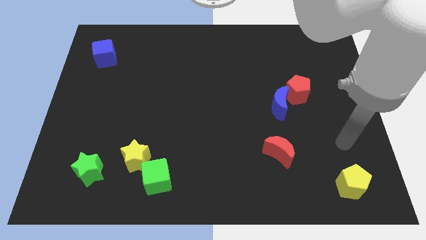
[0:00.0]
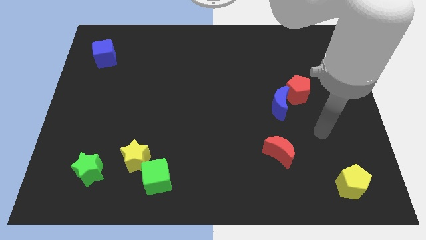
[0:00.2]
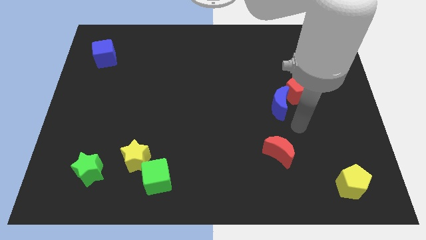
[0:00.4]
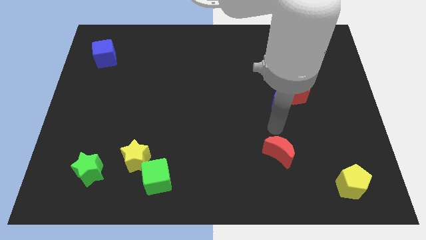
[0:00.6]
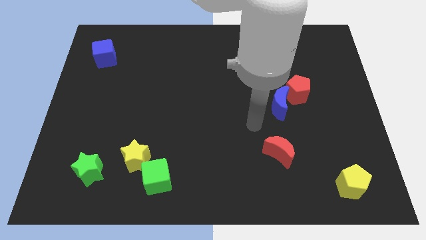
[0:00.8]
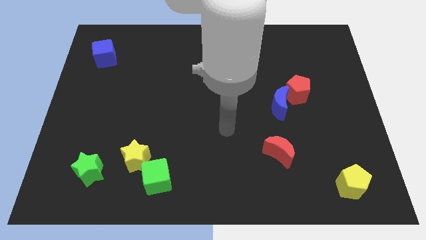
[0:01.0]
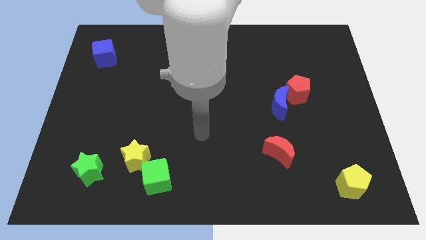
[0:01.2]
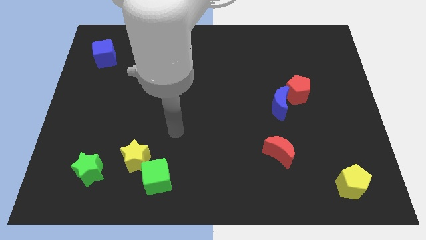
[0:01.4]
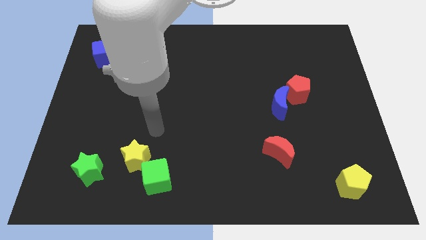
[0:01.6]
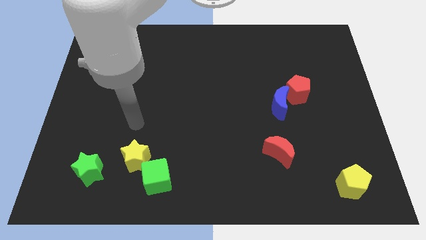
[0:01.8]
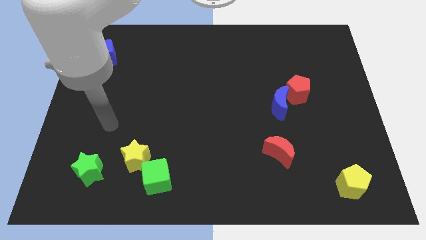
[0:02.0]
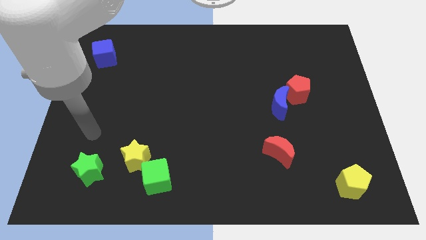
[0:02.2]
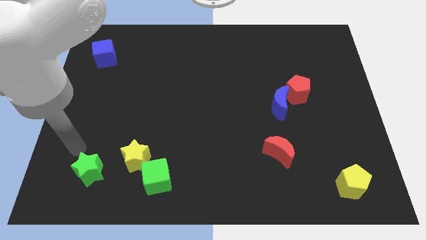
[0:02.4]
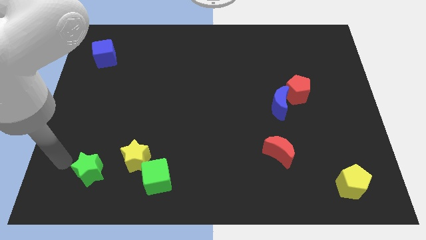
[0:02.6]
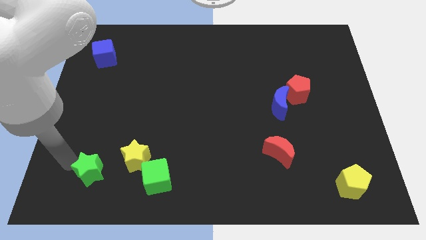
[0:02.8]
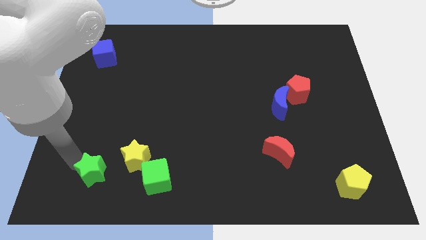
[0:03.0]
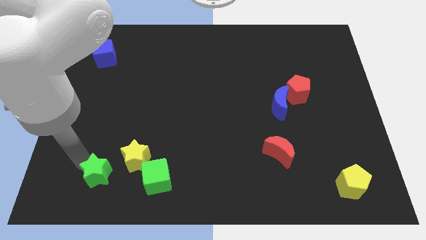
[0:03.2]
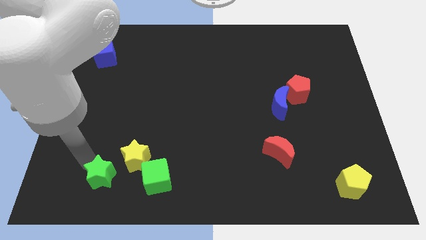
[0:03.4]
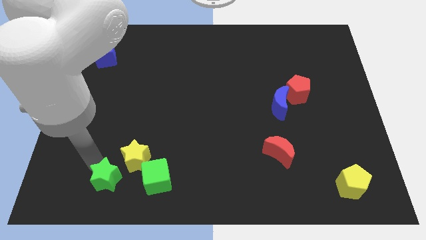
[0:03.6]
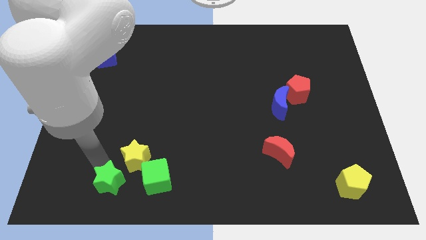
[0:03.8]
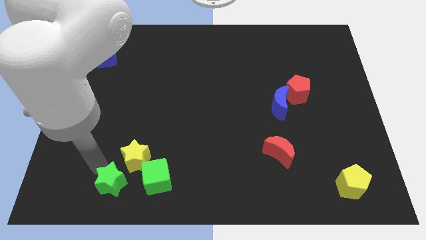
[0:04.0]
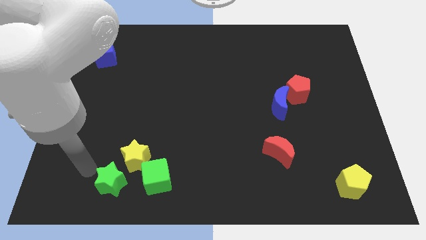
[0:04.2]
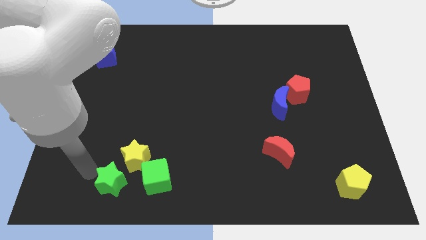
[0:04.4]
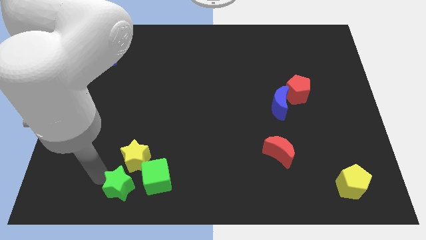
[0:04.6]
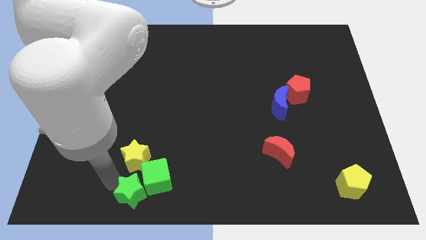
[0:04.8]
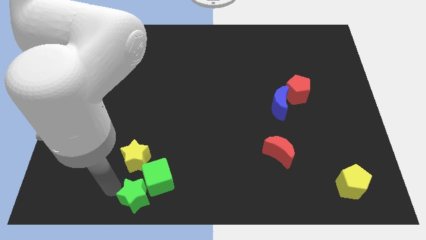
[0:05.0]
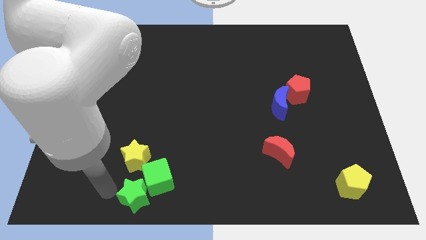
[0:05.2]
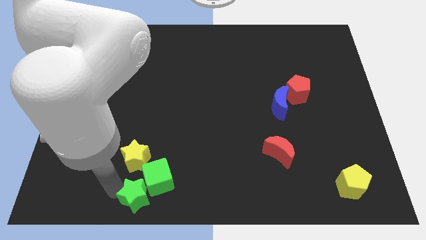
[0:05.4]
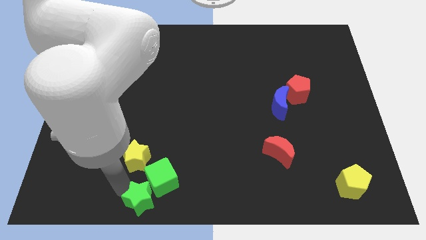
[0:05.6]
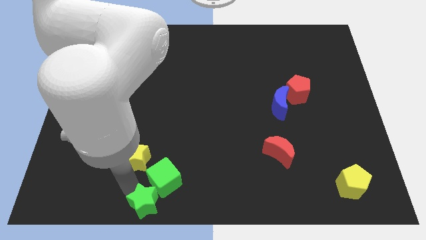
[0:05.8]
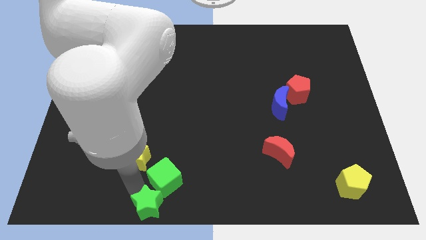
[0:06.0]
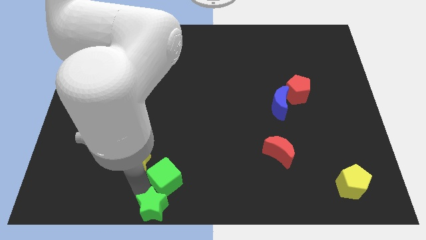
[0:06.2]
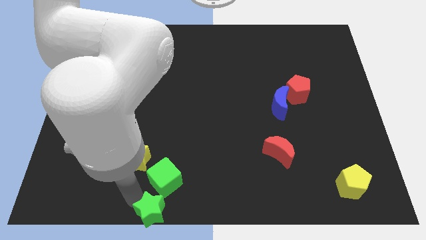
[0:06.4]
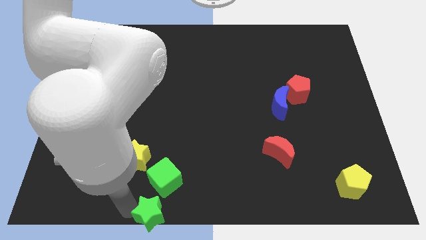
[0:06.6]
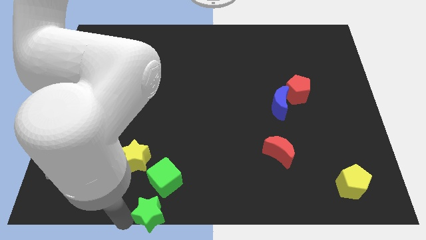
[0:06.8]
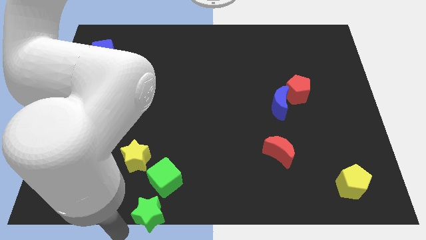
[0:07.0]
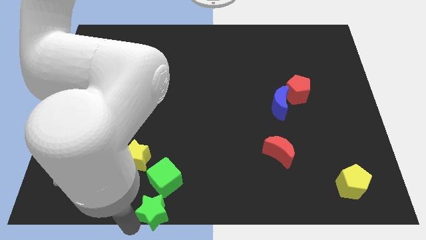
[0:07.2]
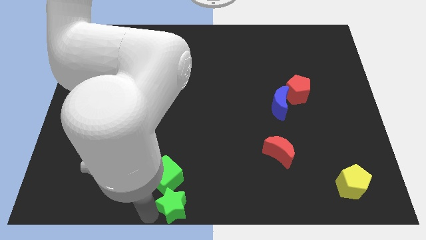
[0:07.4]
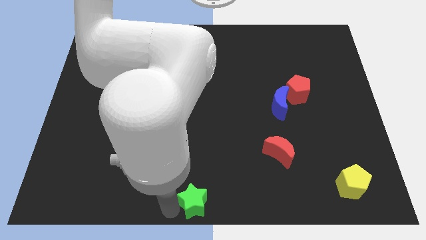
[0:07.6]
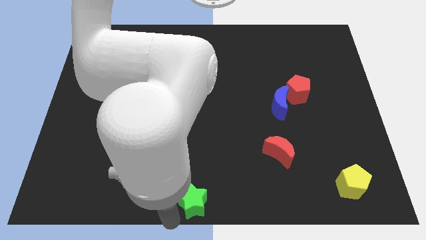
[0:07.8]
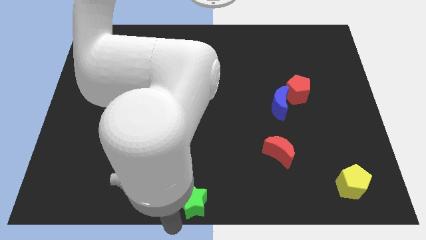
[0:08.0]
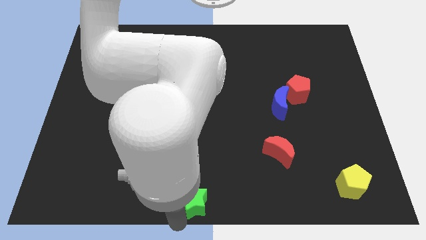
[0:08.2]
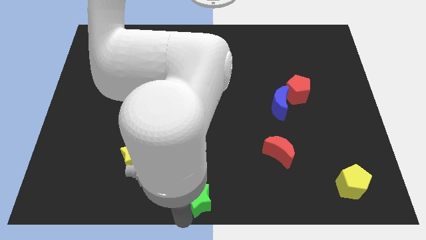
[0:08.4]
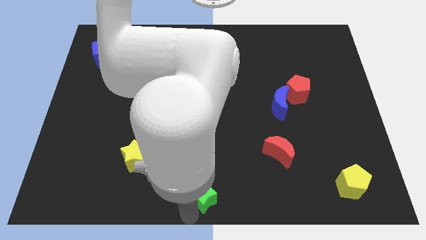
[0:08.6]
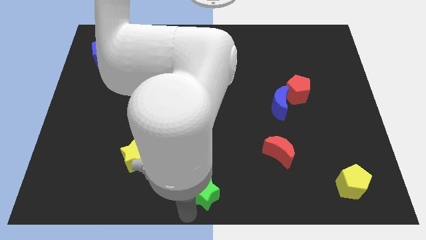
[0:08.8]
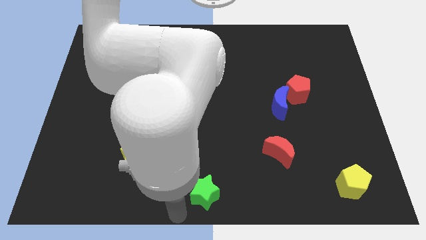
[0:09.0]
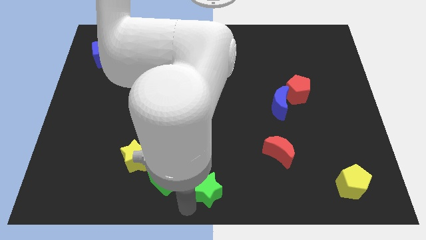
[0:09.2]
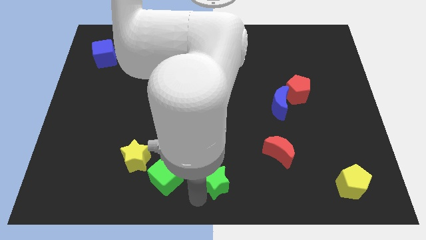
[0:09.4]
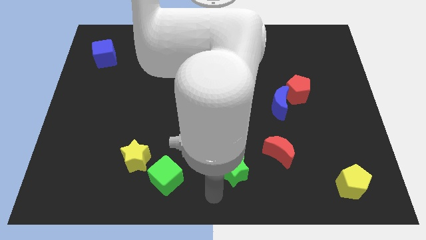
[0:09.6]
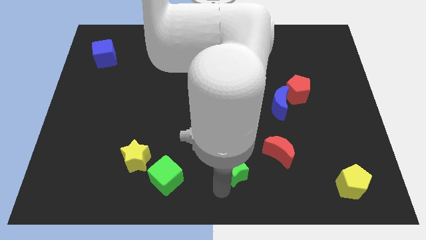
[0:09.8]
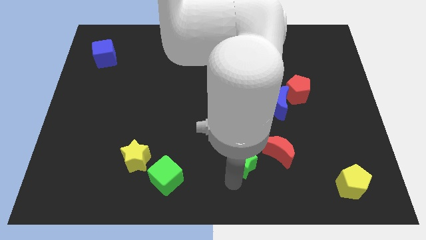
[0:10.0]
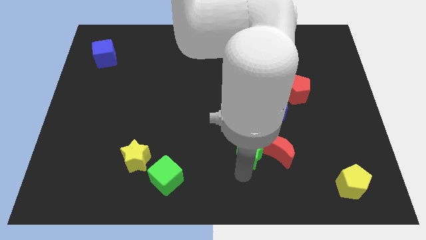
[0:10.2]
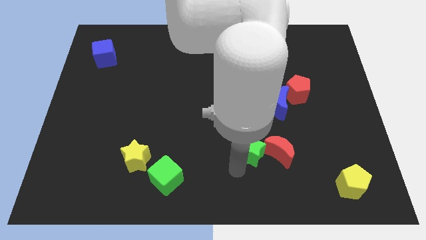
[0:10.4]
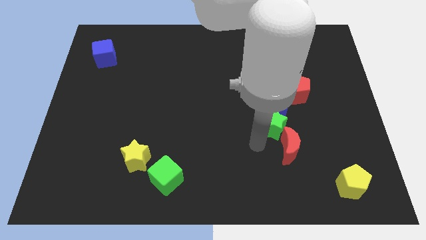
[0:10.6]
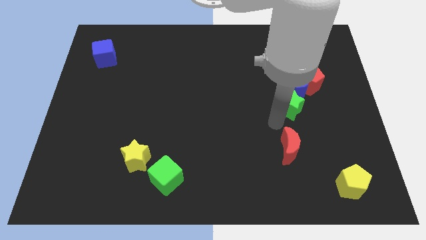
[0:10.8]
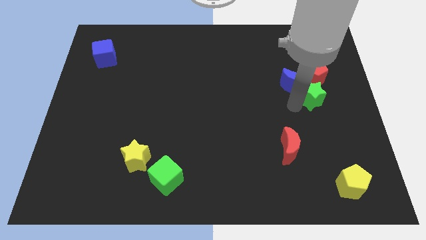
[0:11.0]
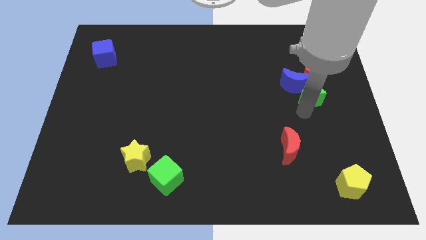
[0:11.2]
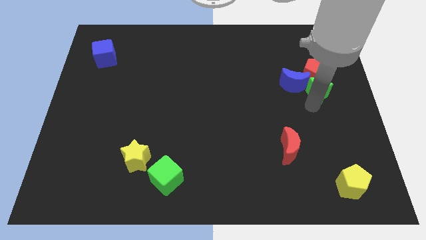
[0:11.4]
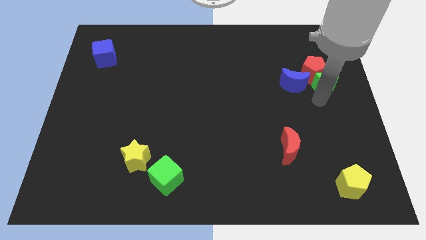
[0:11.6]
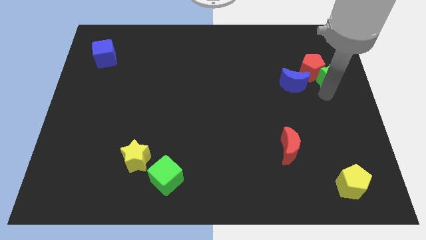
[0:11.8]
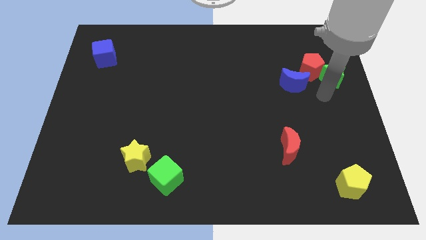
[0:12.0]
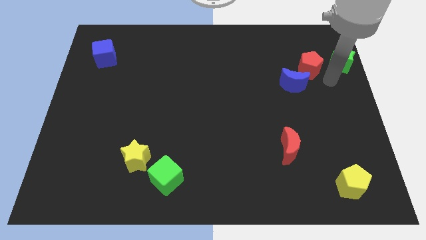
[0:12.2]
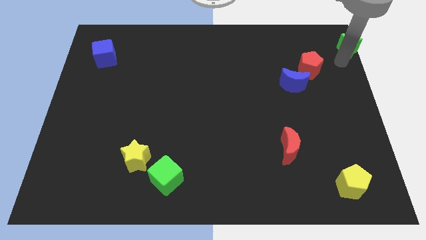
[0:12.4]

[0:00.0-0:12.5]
push the green star to the top right corner

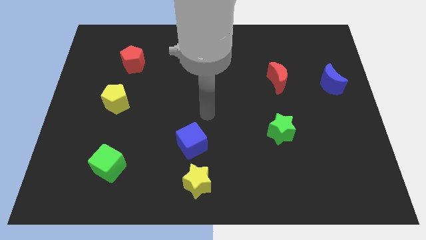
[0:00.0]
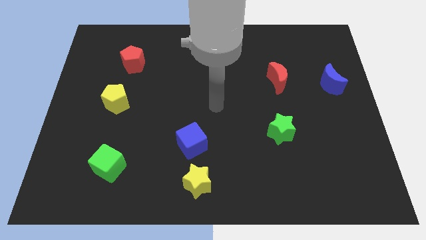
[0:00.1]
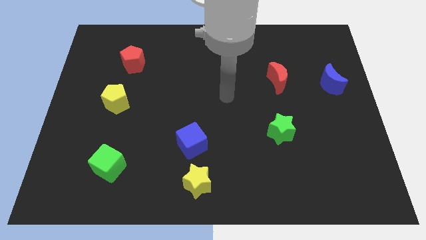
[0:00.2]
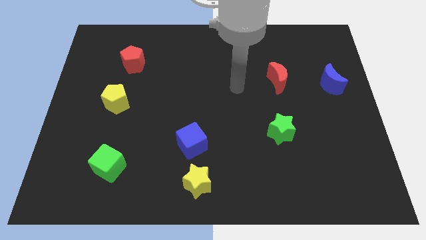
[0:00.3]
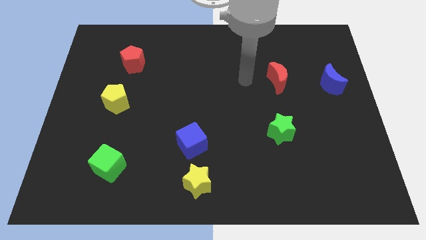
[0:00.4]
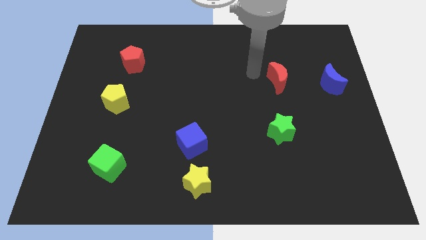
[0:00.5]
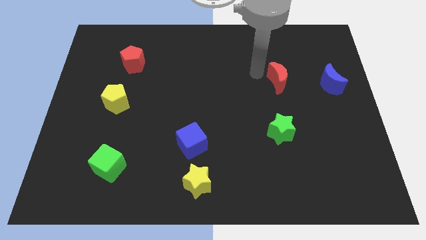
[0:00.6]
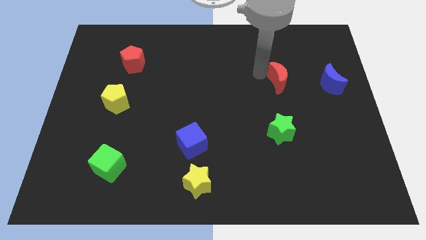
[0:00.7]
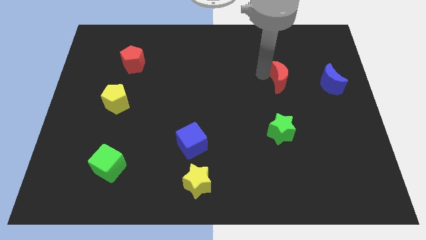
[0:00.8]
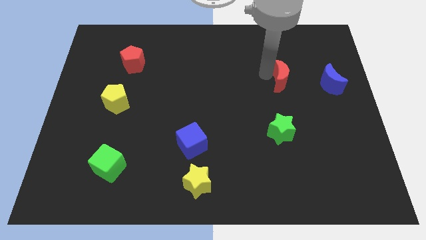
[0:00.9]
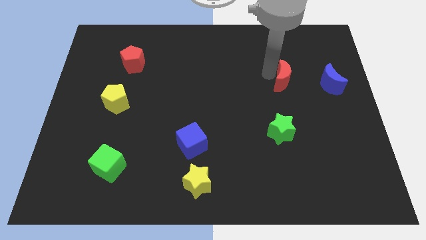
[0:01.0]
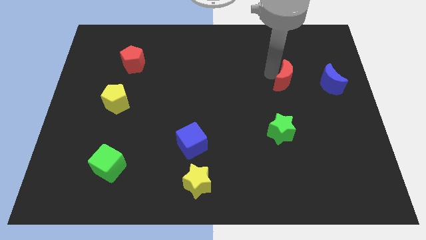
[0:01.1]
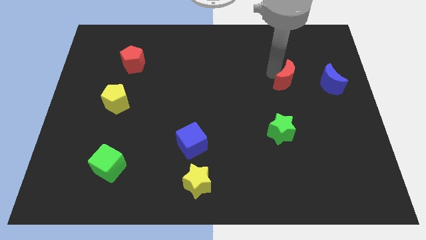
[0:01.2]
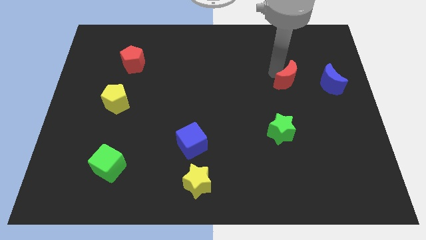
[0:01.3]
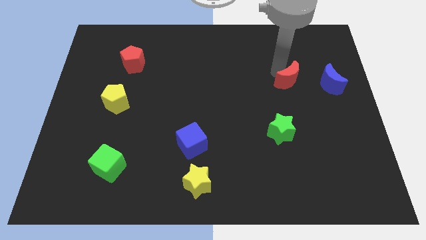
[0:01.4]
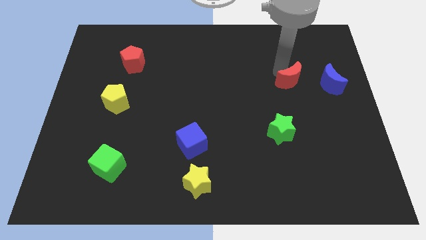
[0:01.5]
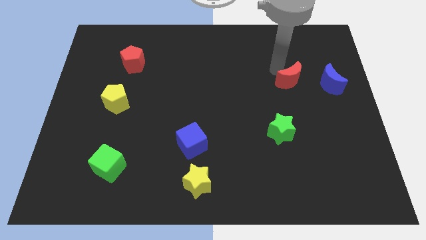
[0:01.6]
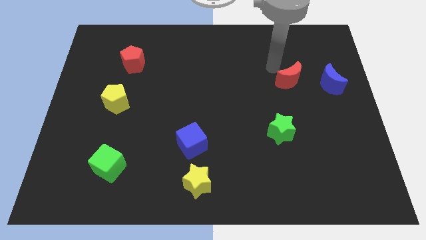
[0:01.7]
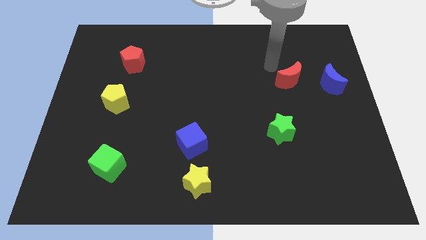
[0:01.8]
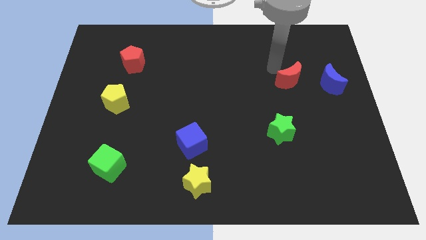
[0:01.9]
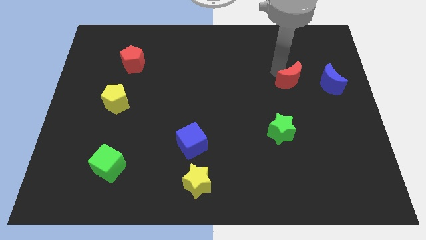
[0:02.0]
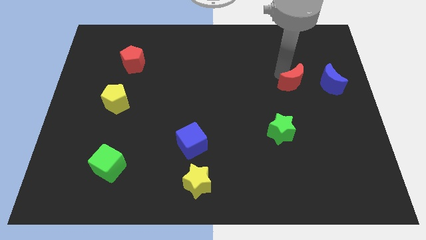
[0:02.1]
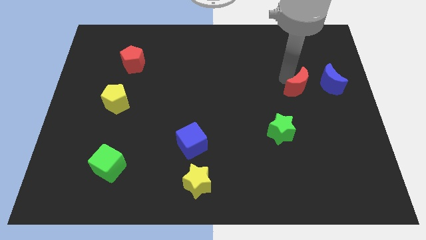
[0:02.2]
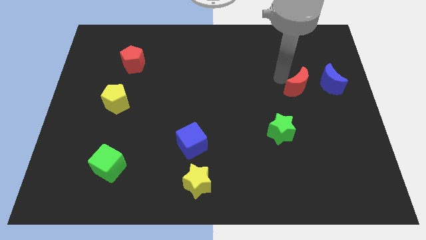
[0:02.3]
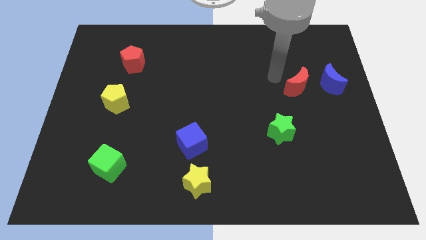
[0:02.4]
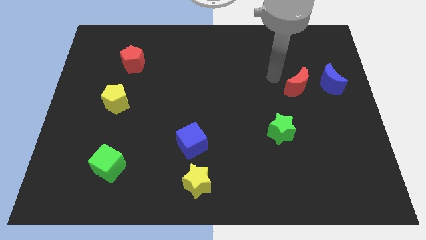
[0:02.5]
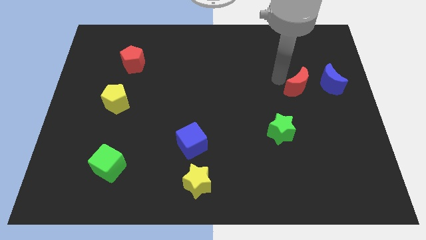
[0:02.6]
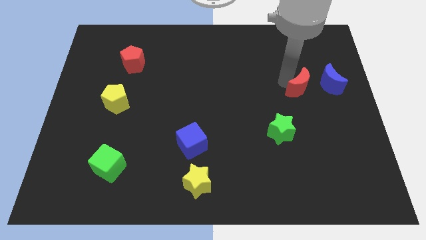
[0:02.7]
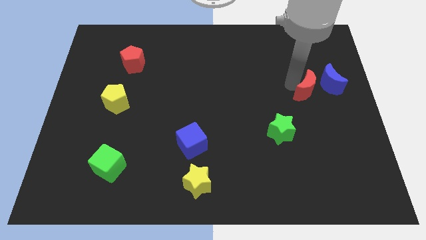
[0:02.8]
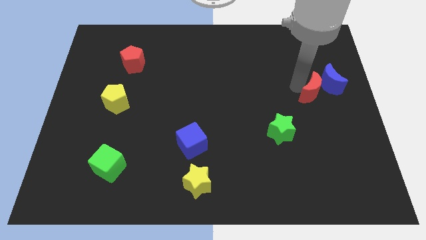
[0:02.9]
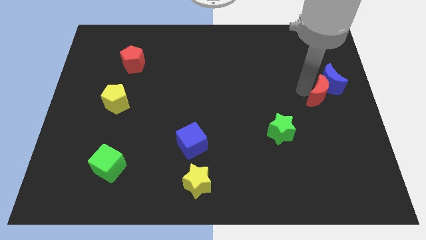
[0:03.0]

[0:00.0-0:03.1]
slide the red moon to the center right
